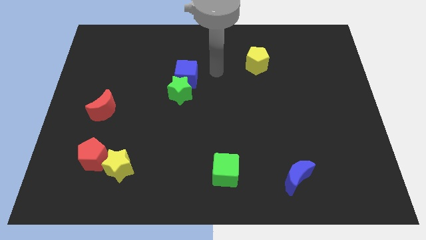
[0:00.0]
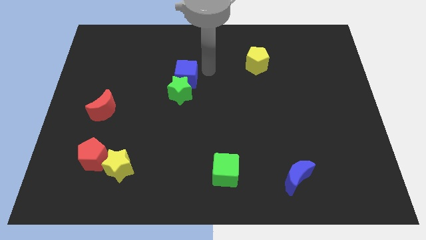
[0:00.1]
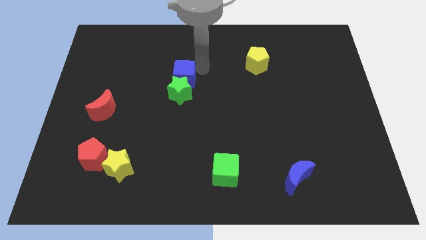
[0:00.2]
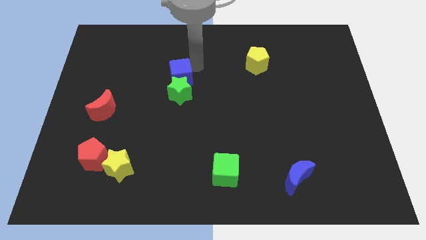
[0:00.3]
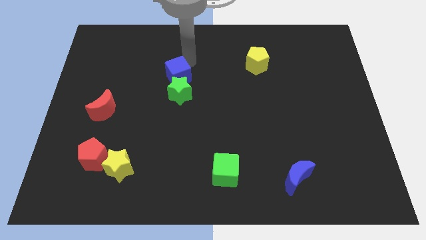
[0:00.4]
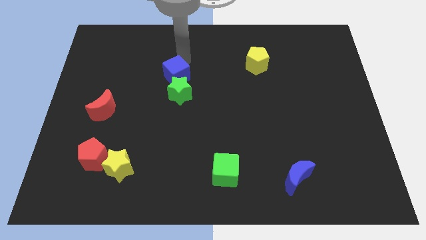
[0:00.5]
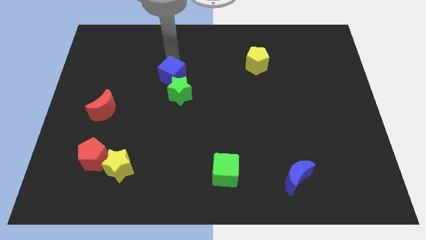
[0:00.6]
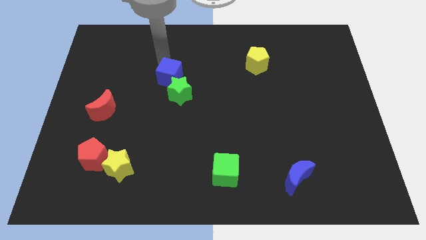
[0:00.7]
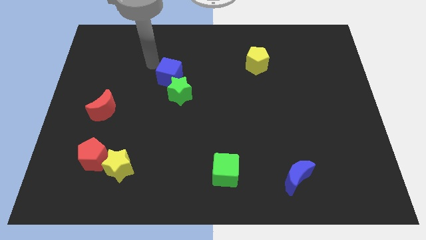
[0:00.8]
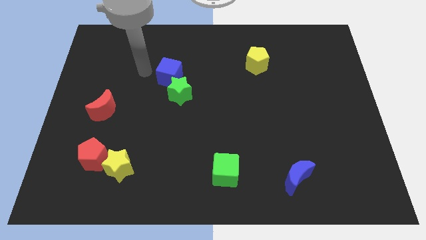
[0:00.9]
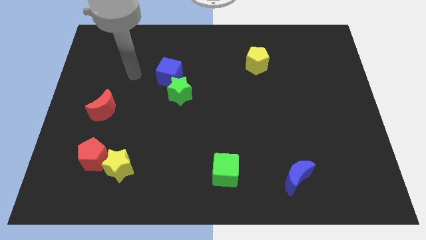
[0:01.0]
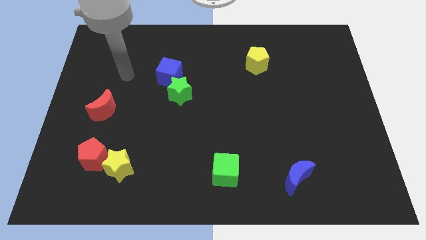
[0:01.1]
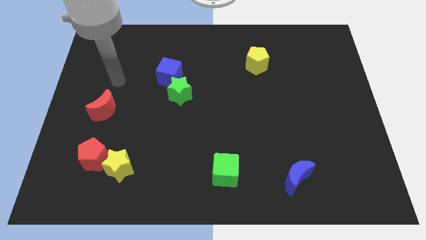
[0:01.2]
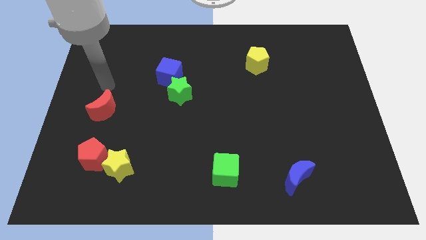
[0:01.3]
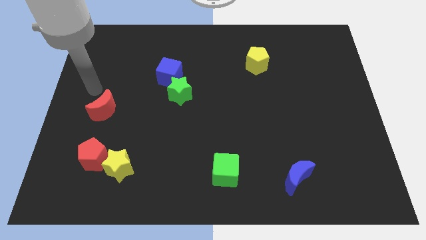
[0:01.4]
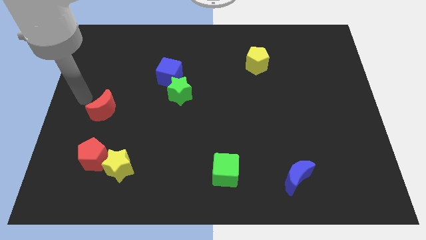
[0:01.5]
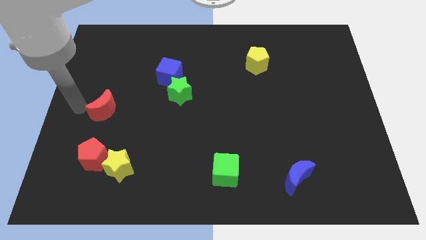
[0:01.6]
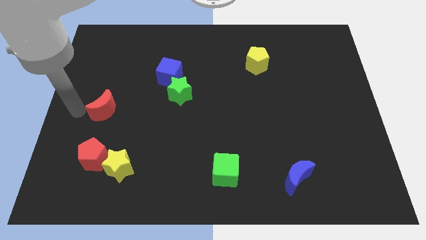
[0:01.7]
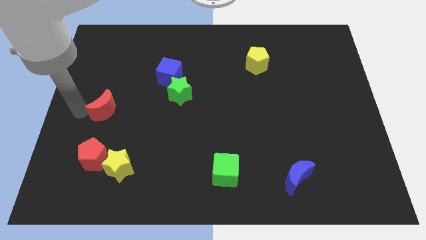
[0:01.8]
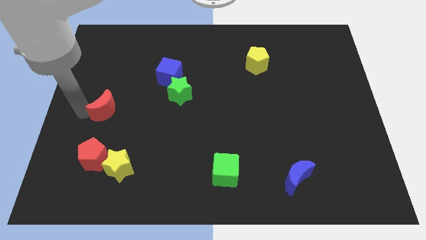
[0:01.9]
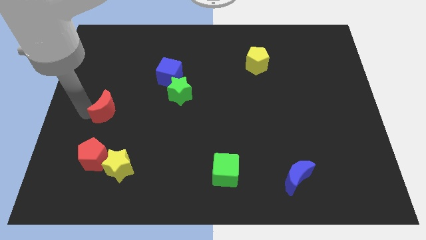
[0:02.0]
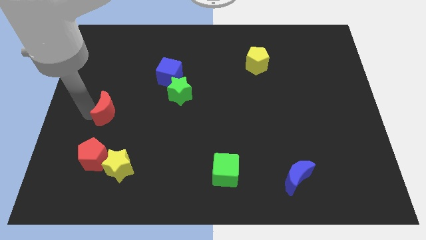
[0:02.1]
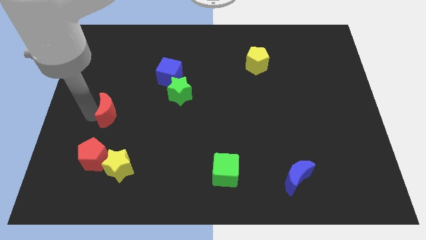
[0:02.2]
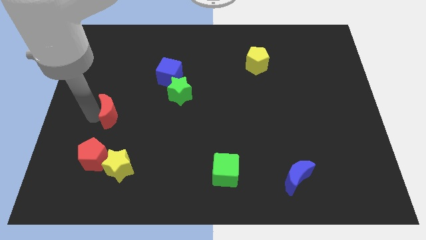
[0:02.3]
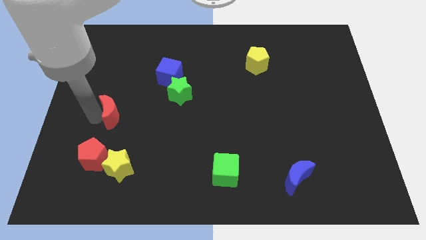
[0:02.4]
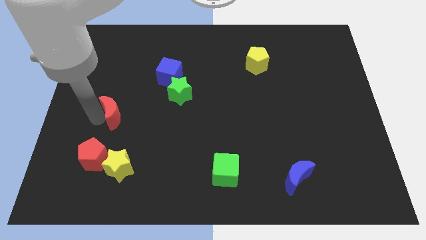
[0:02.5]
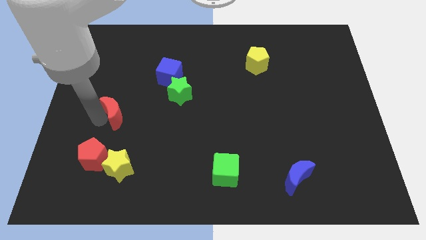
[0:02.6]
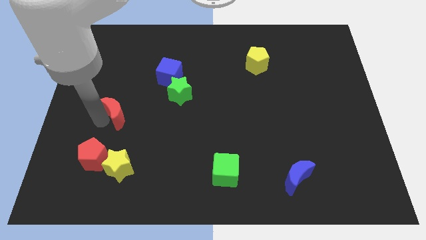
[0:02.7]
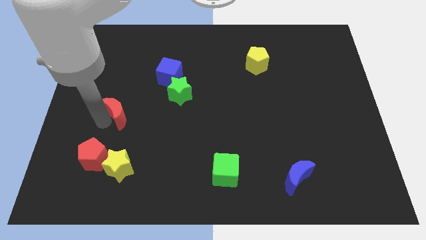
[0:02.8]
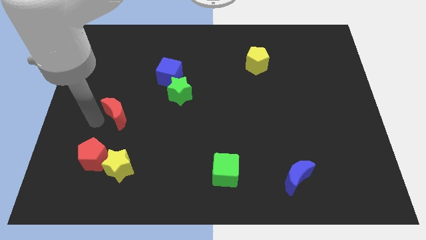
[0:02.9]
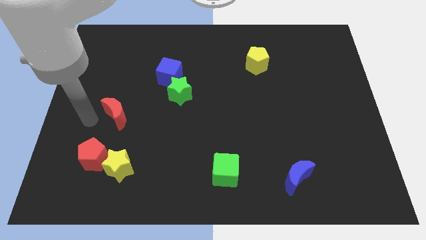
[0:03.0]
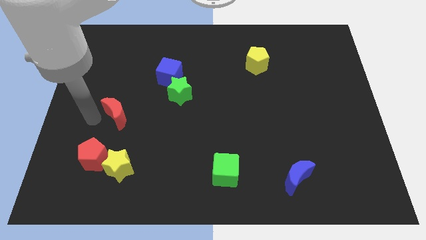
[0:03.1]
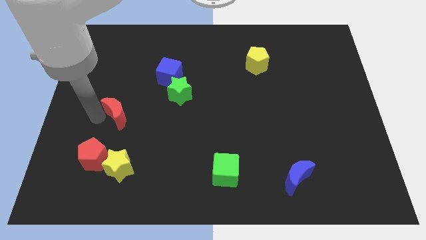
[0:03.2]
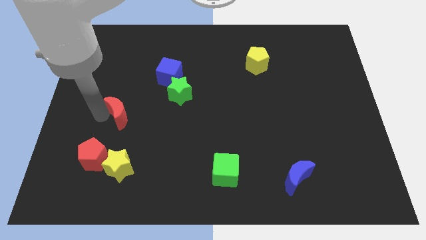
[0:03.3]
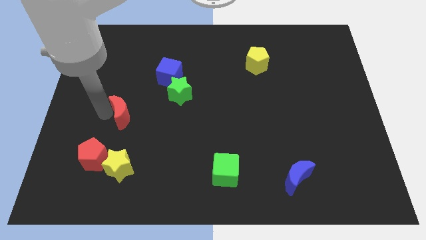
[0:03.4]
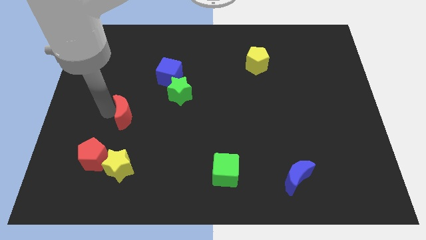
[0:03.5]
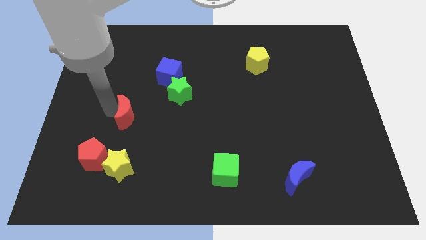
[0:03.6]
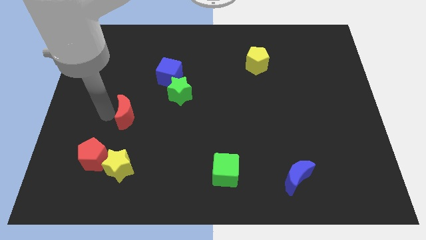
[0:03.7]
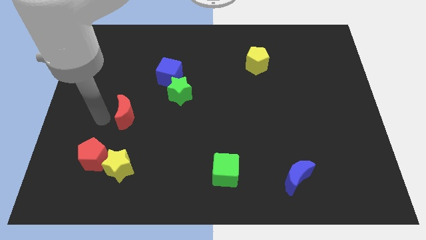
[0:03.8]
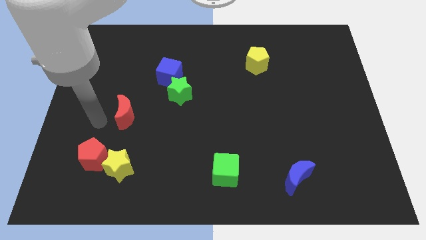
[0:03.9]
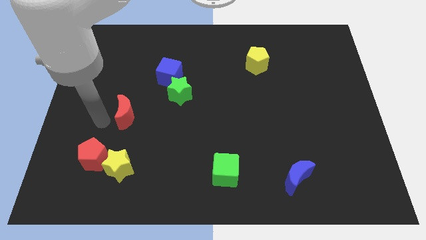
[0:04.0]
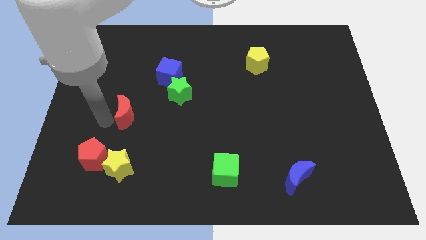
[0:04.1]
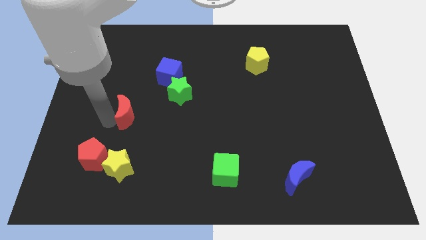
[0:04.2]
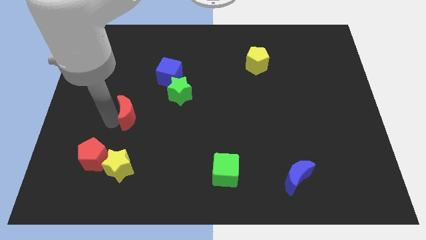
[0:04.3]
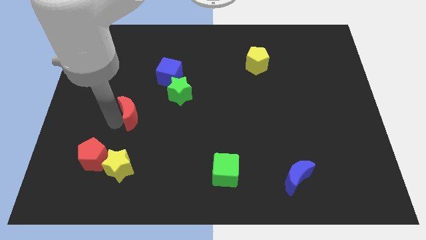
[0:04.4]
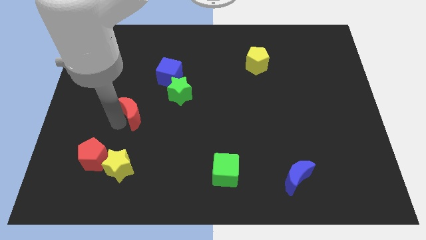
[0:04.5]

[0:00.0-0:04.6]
slightly push the red moon right

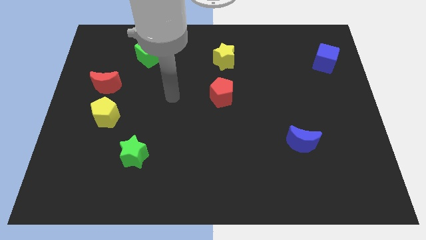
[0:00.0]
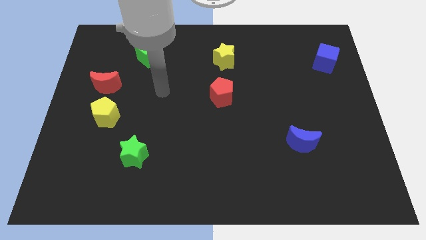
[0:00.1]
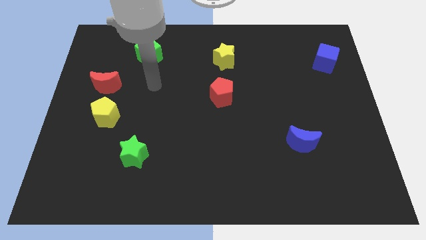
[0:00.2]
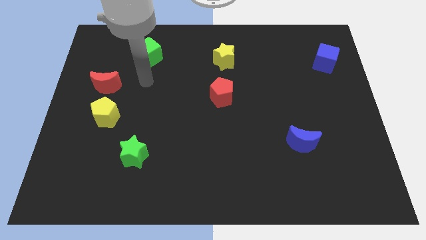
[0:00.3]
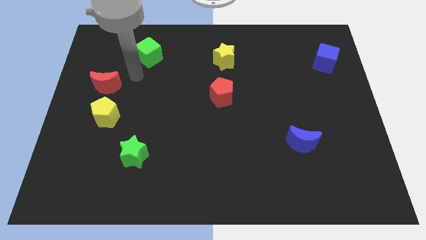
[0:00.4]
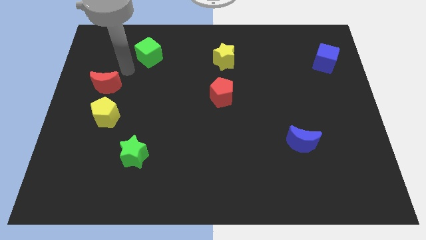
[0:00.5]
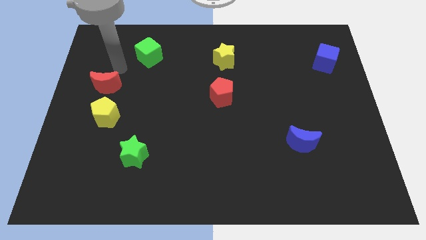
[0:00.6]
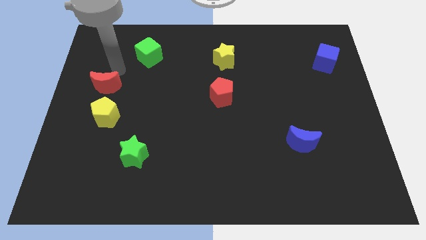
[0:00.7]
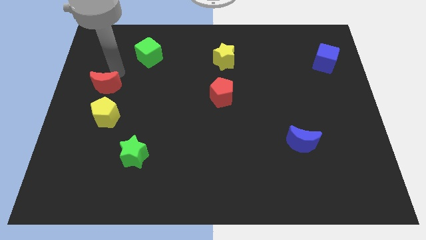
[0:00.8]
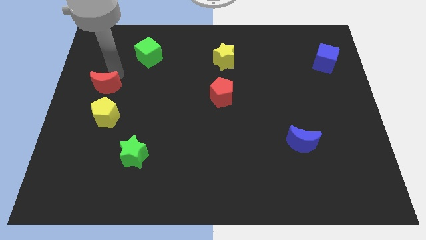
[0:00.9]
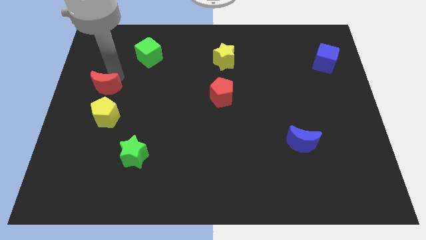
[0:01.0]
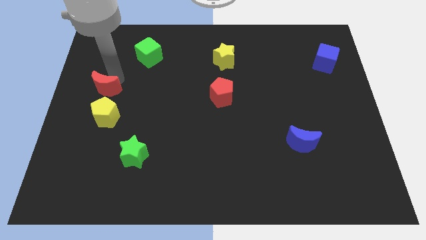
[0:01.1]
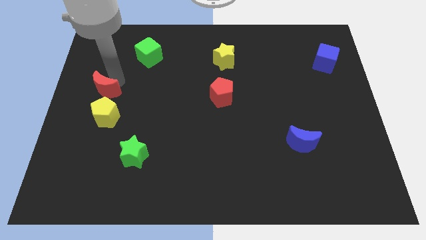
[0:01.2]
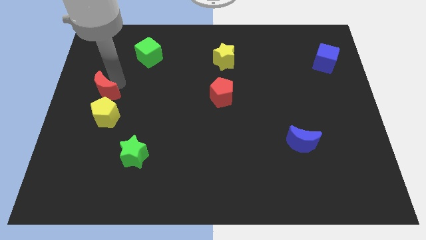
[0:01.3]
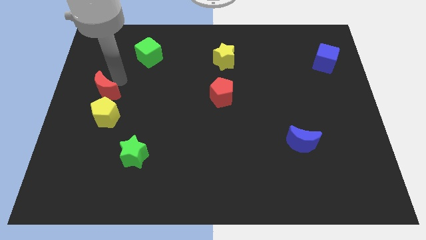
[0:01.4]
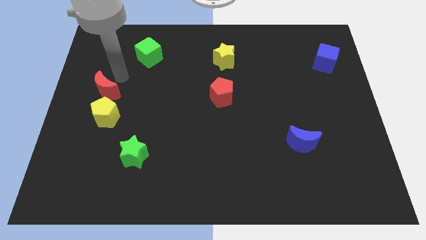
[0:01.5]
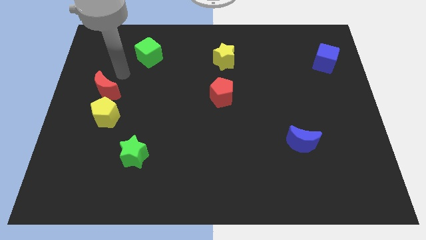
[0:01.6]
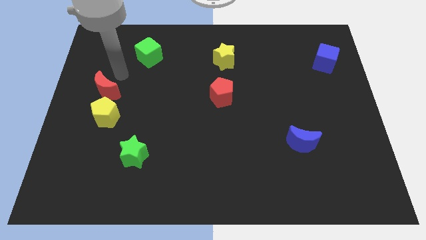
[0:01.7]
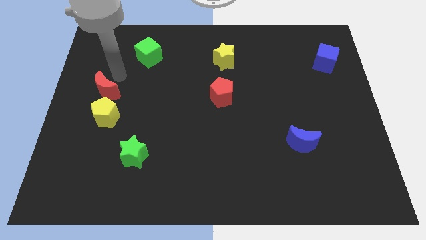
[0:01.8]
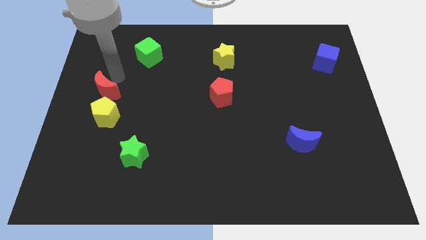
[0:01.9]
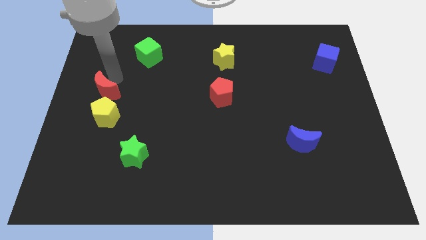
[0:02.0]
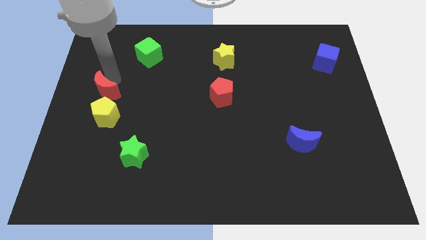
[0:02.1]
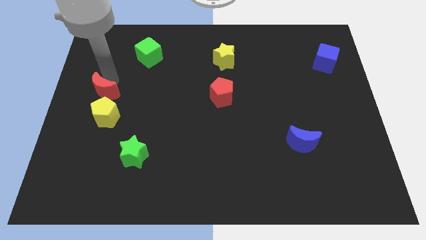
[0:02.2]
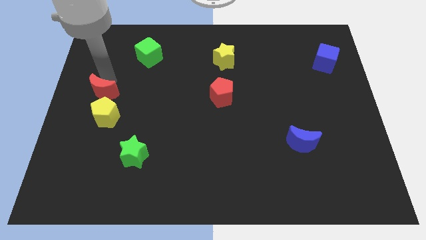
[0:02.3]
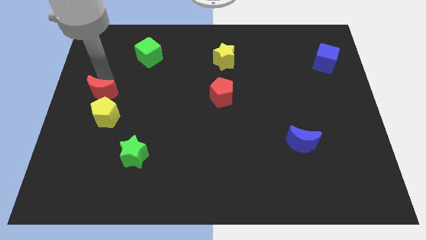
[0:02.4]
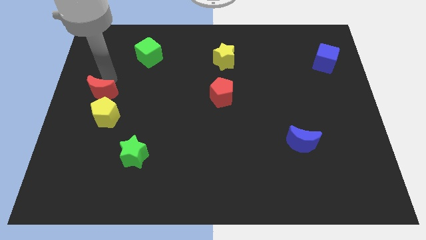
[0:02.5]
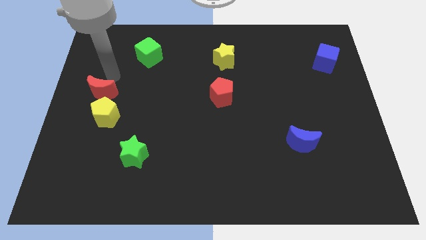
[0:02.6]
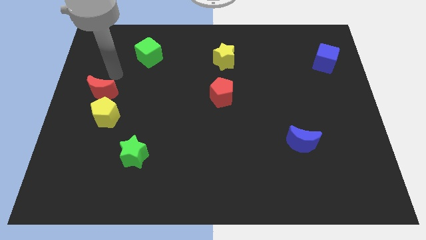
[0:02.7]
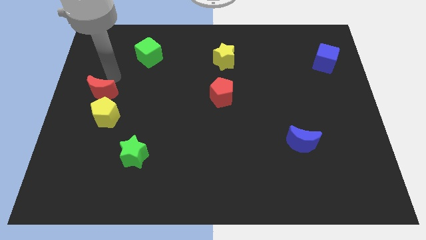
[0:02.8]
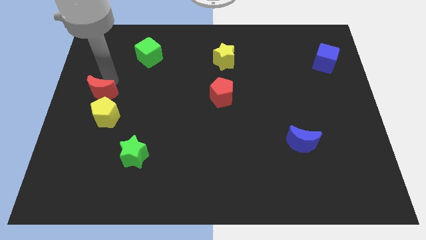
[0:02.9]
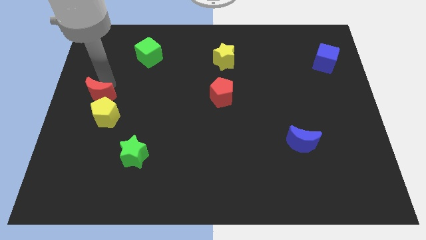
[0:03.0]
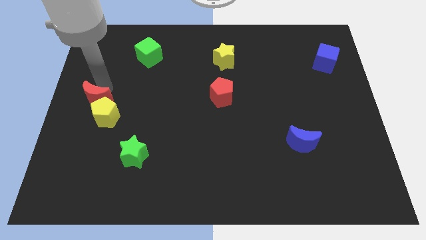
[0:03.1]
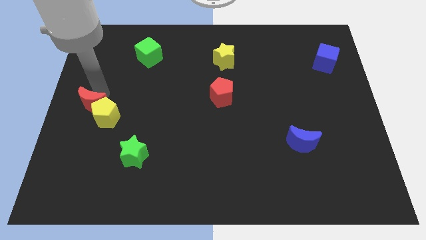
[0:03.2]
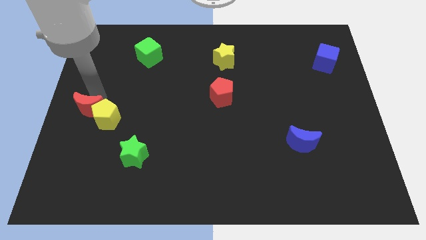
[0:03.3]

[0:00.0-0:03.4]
slide the red moon slightly downwards
